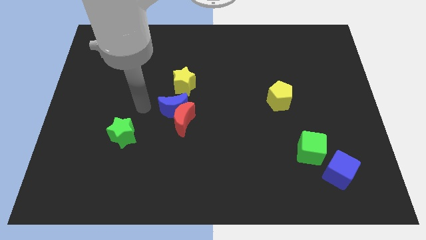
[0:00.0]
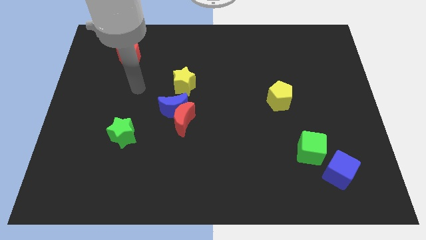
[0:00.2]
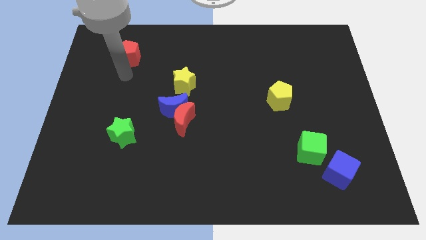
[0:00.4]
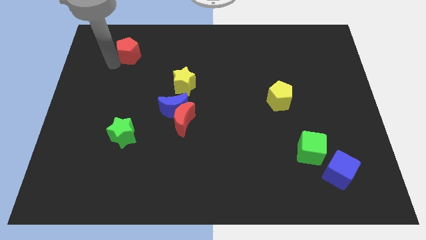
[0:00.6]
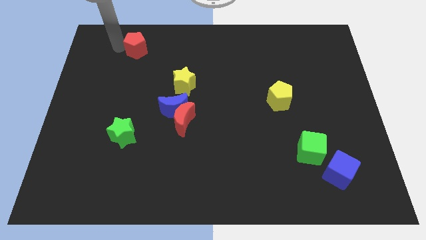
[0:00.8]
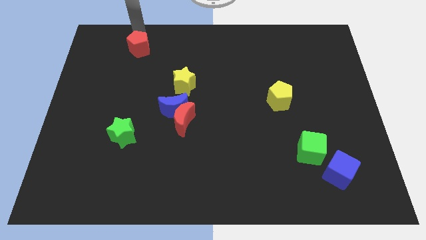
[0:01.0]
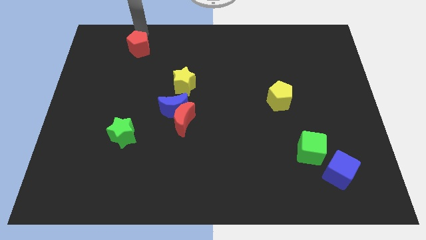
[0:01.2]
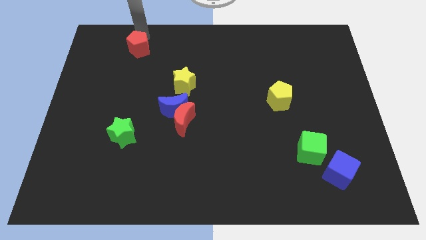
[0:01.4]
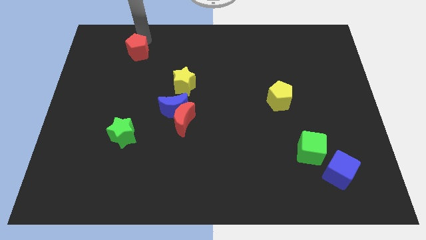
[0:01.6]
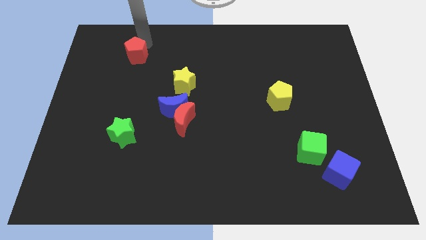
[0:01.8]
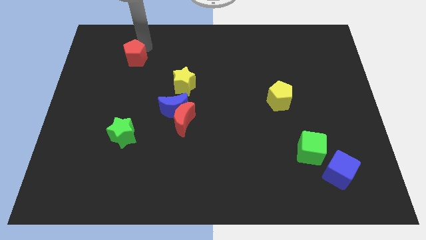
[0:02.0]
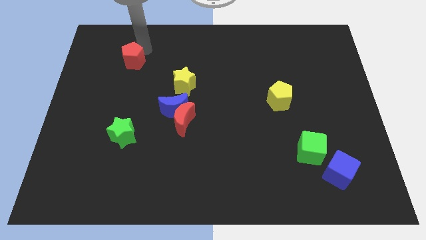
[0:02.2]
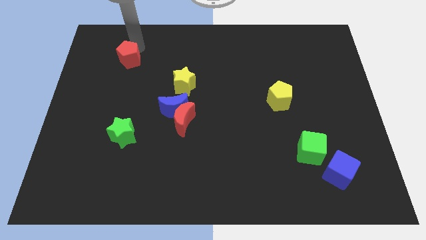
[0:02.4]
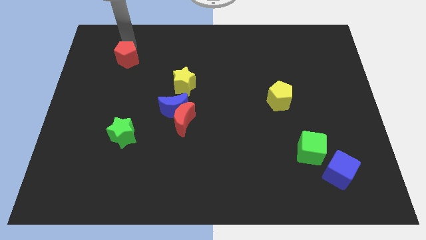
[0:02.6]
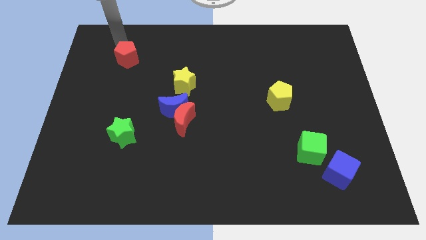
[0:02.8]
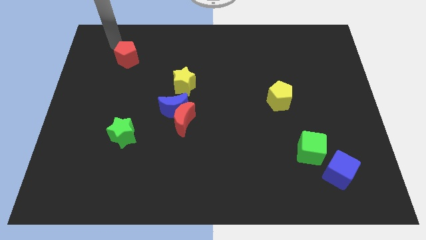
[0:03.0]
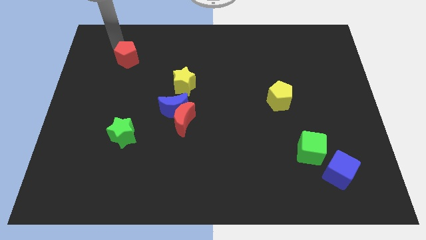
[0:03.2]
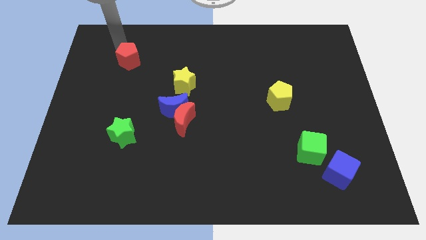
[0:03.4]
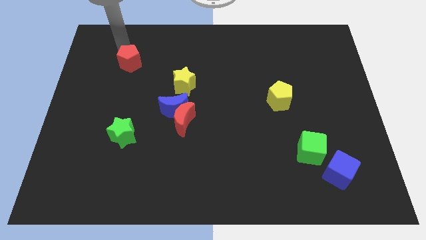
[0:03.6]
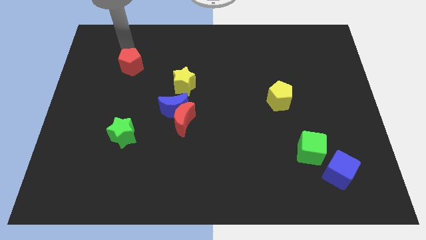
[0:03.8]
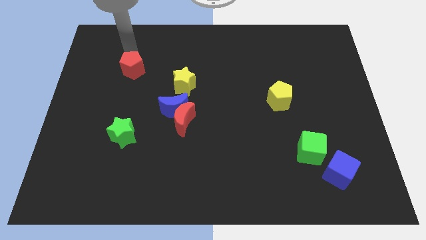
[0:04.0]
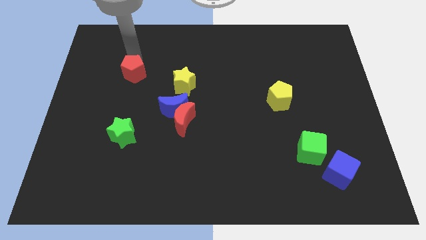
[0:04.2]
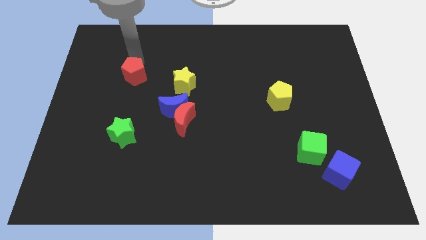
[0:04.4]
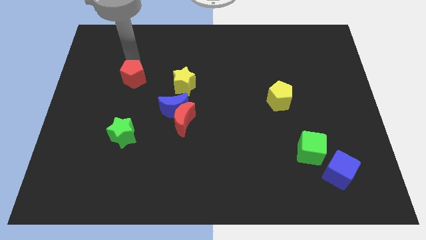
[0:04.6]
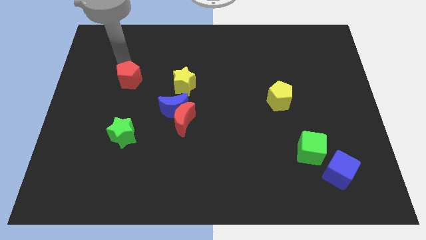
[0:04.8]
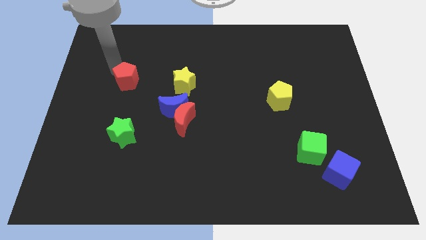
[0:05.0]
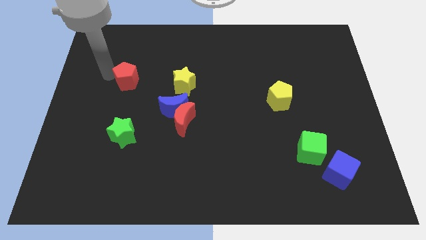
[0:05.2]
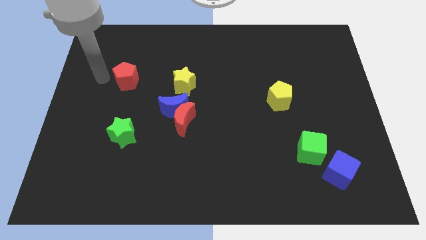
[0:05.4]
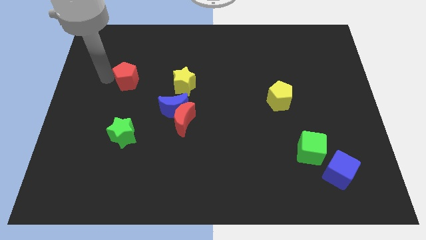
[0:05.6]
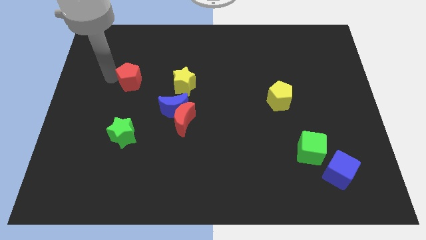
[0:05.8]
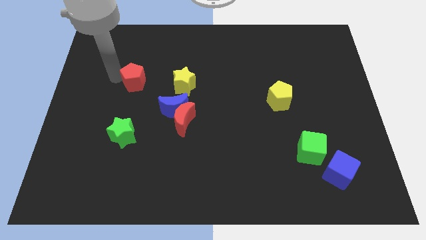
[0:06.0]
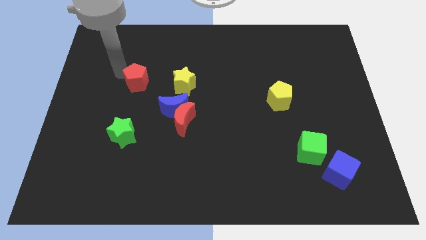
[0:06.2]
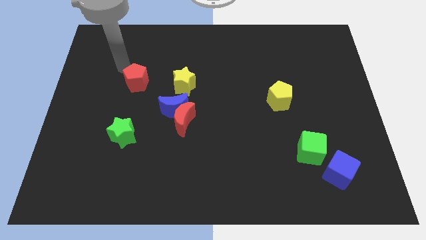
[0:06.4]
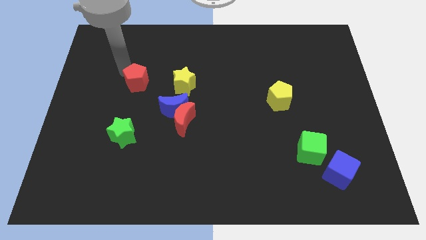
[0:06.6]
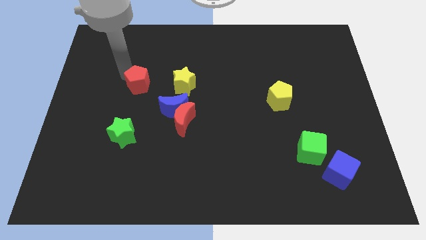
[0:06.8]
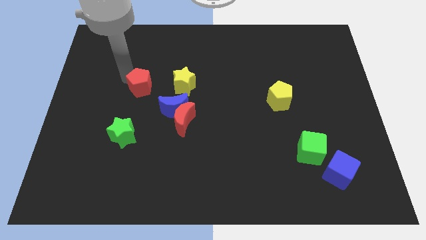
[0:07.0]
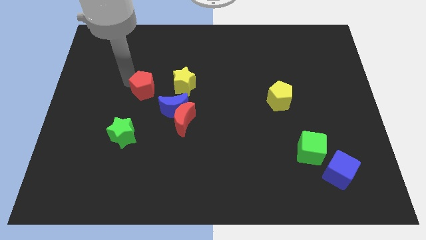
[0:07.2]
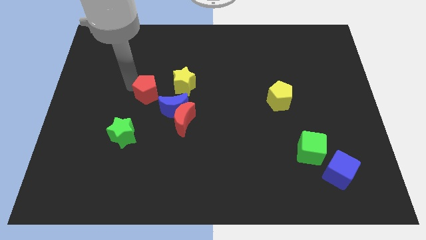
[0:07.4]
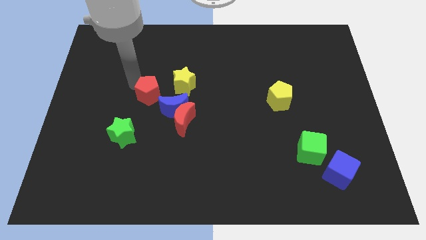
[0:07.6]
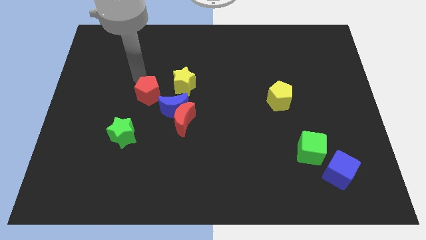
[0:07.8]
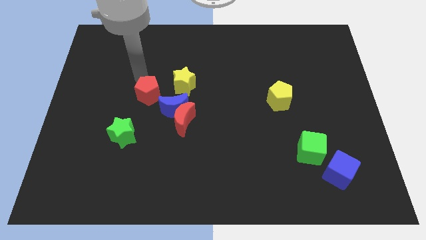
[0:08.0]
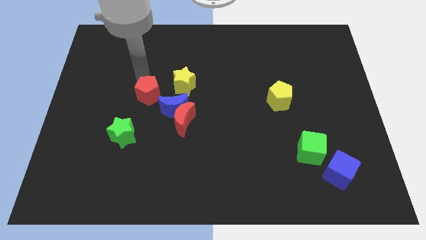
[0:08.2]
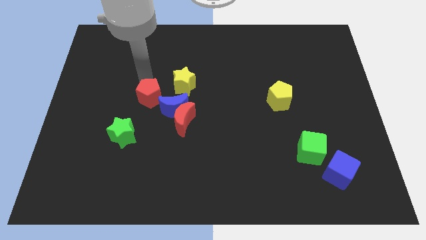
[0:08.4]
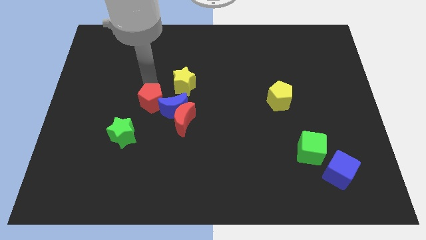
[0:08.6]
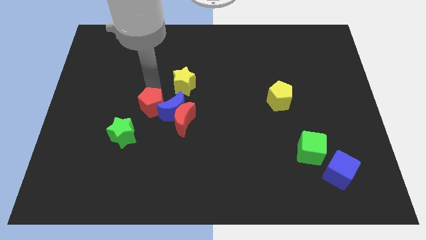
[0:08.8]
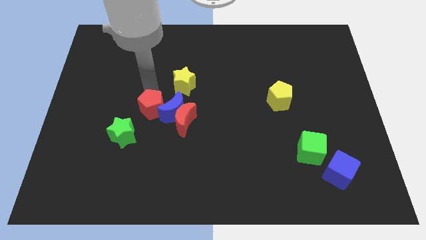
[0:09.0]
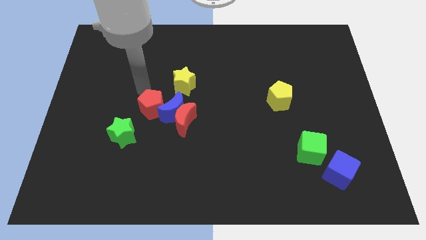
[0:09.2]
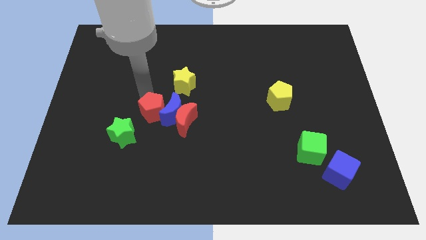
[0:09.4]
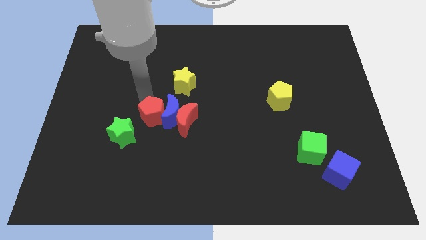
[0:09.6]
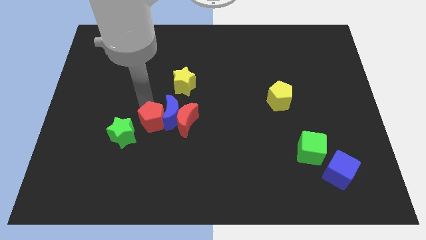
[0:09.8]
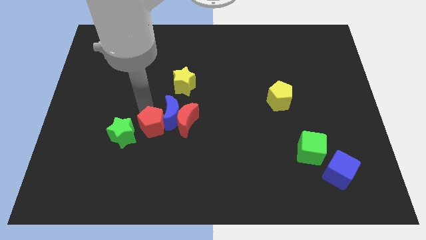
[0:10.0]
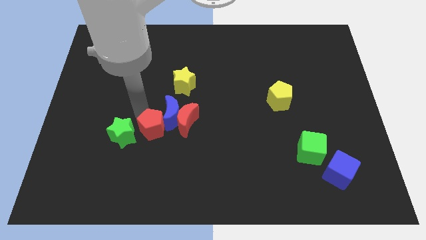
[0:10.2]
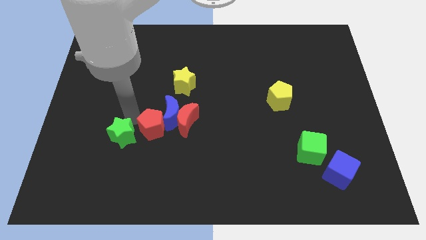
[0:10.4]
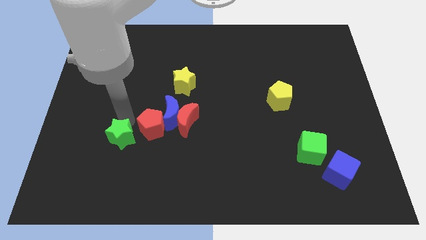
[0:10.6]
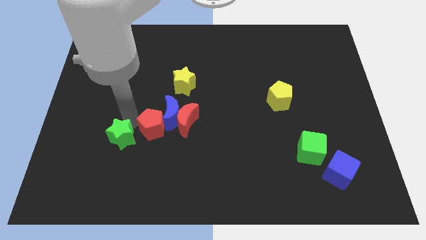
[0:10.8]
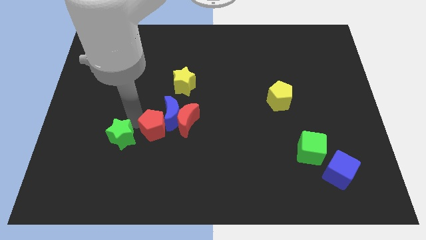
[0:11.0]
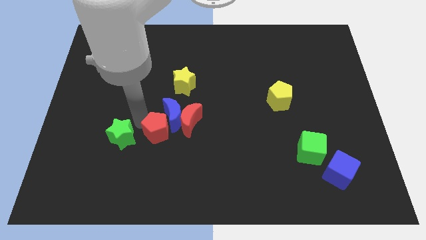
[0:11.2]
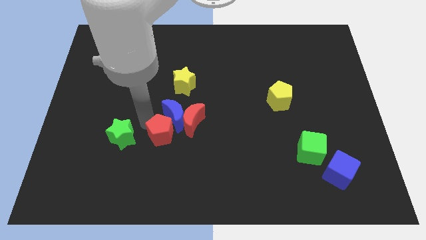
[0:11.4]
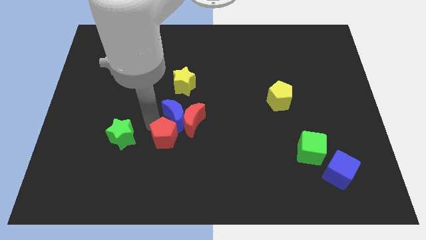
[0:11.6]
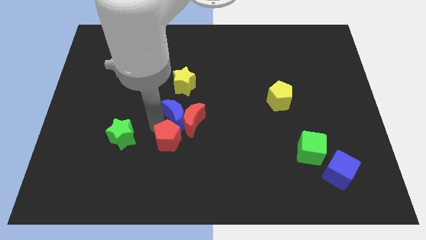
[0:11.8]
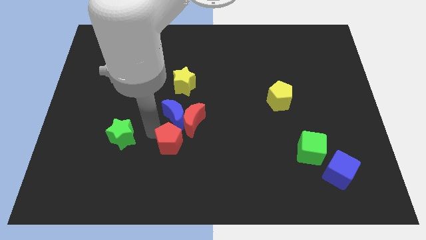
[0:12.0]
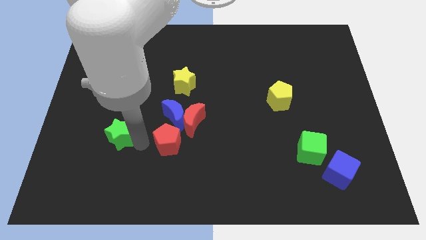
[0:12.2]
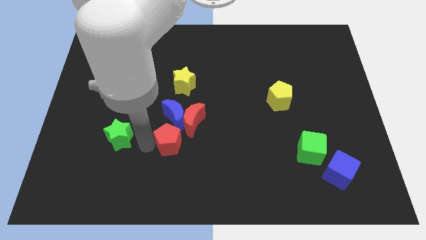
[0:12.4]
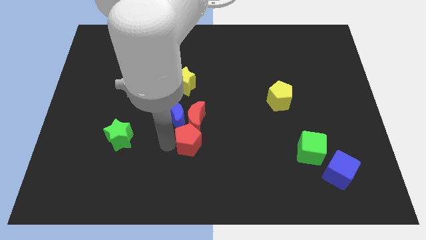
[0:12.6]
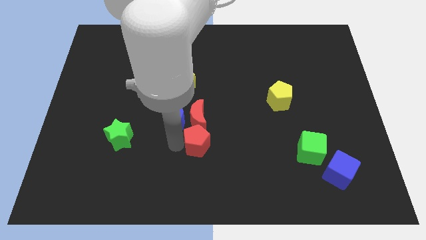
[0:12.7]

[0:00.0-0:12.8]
push the red pentagon diagonally down and to the right of the red moon

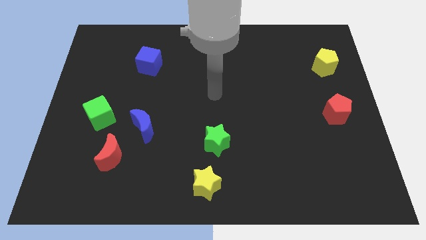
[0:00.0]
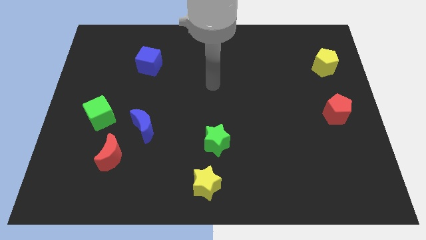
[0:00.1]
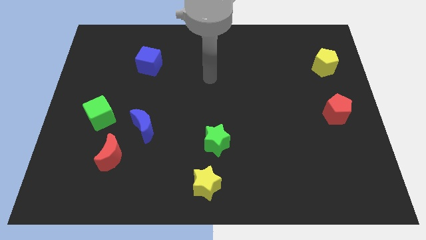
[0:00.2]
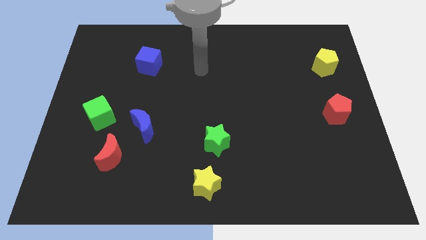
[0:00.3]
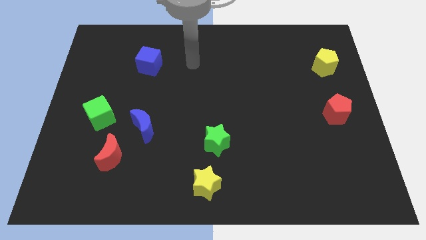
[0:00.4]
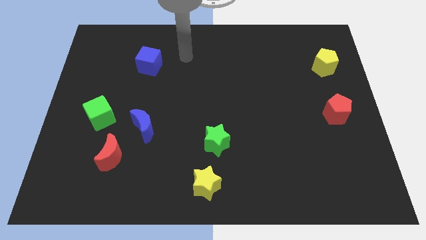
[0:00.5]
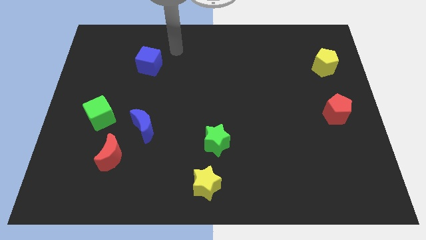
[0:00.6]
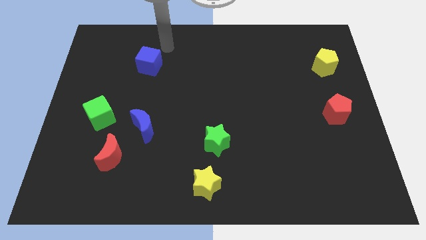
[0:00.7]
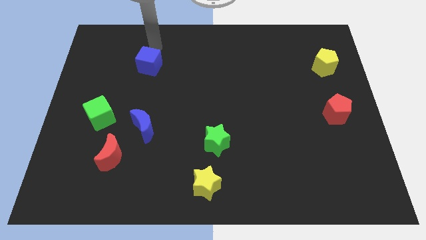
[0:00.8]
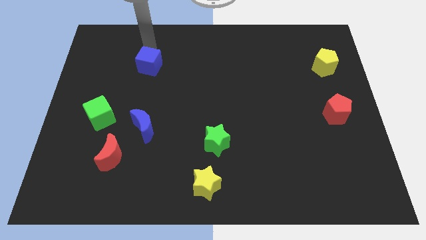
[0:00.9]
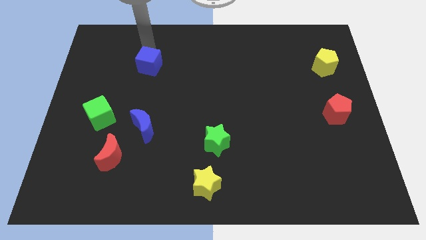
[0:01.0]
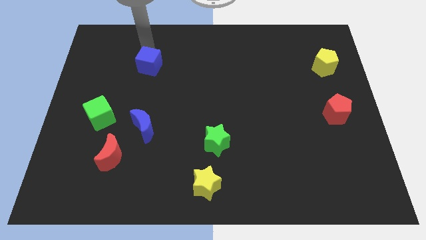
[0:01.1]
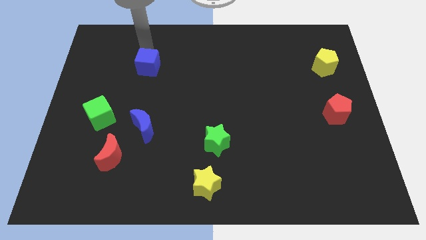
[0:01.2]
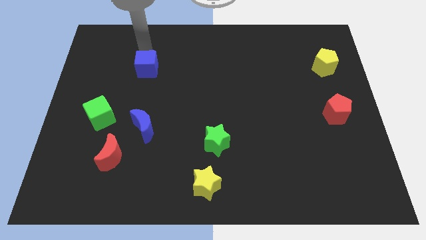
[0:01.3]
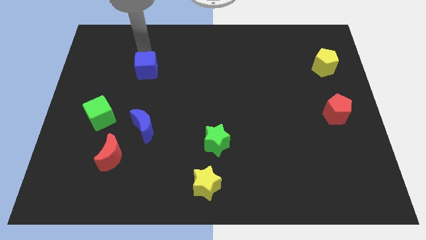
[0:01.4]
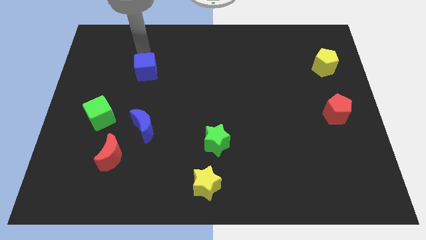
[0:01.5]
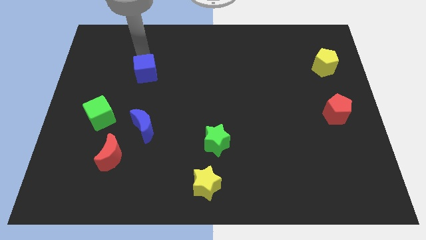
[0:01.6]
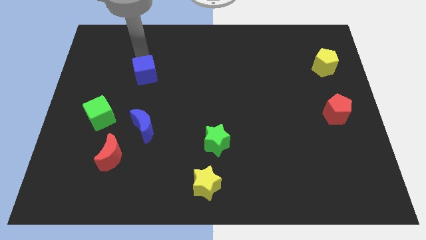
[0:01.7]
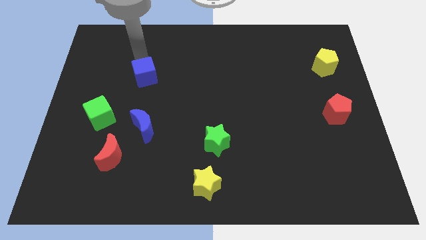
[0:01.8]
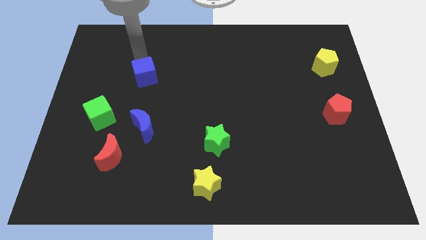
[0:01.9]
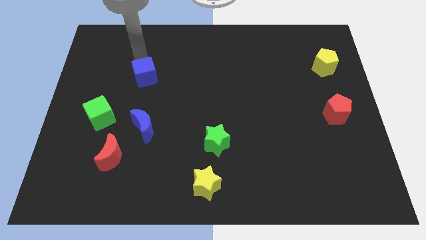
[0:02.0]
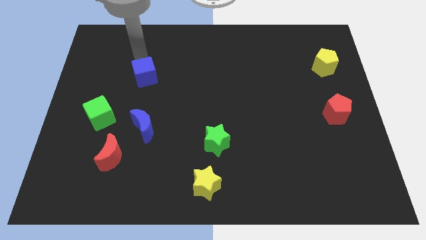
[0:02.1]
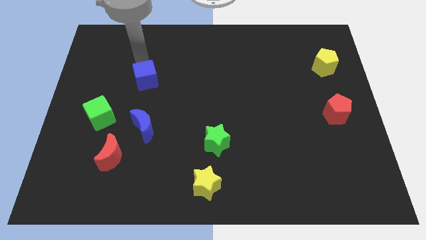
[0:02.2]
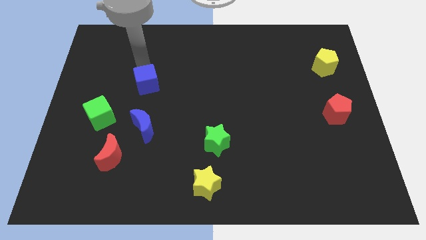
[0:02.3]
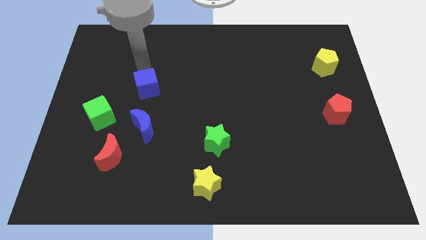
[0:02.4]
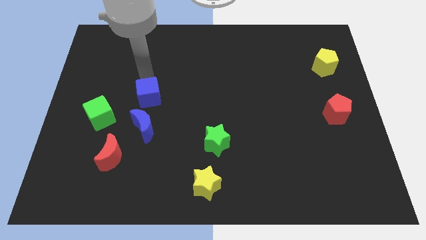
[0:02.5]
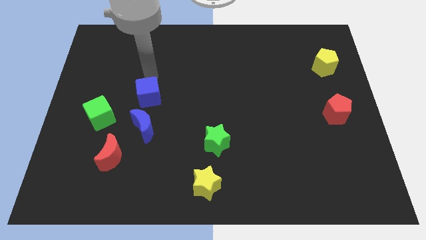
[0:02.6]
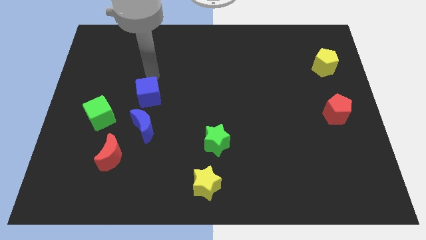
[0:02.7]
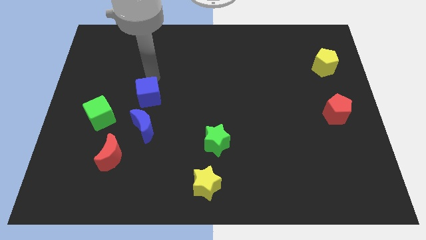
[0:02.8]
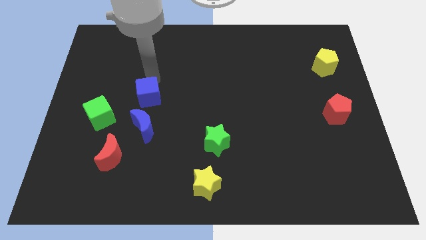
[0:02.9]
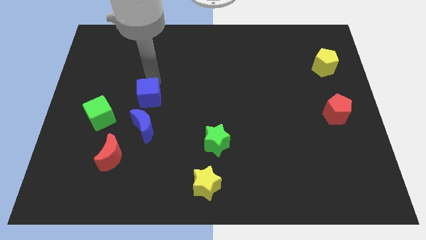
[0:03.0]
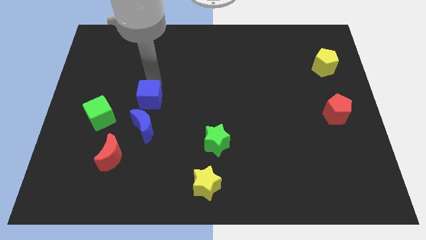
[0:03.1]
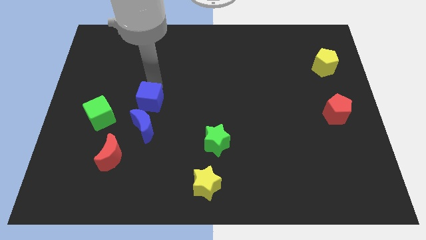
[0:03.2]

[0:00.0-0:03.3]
move the blue cube just right of the green cube
